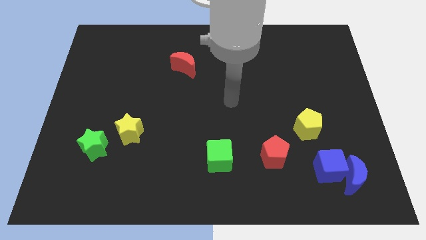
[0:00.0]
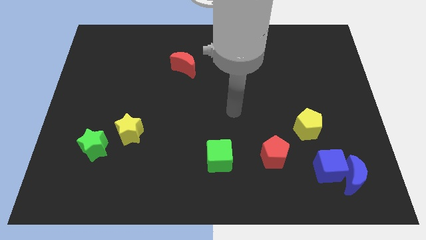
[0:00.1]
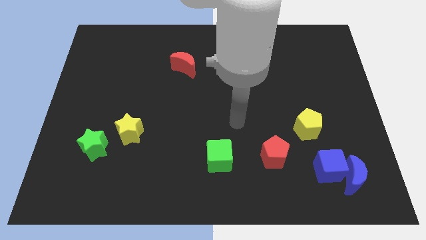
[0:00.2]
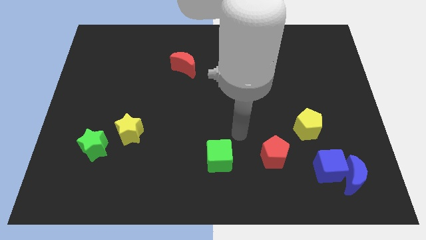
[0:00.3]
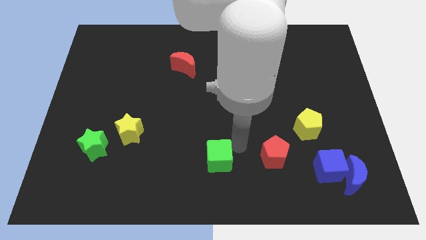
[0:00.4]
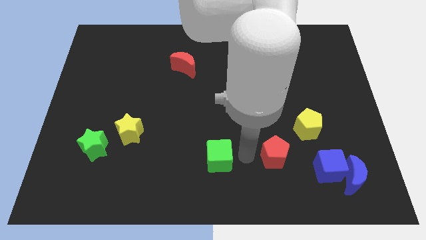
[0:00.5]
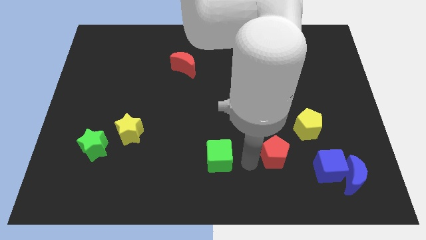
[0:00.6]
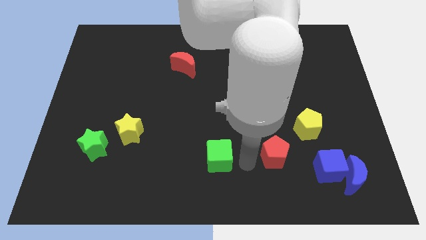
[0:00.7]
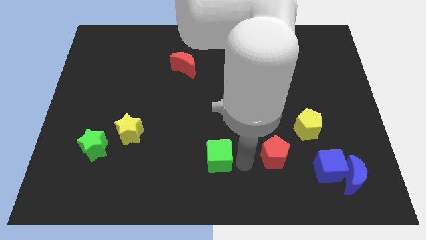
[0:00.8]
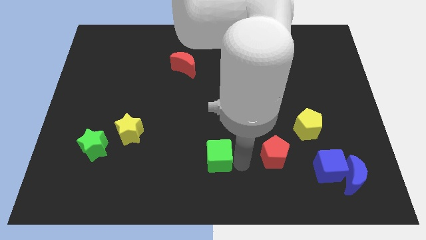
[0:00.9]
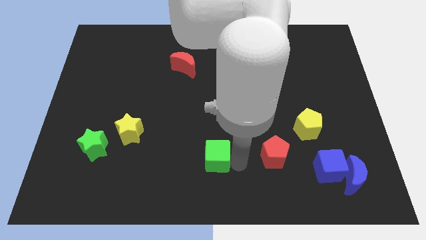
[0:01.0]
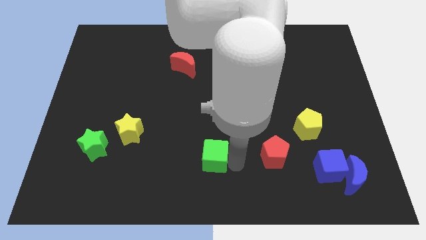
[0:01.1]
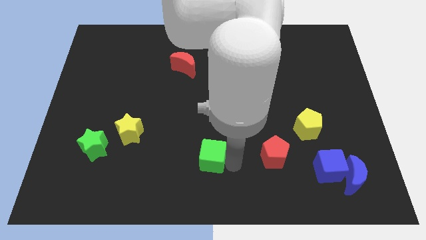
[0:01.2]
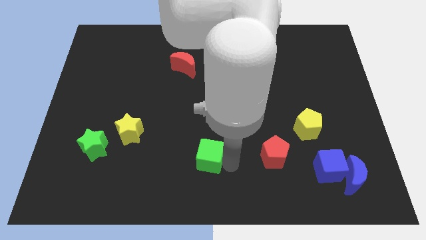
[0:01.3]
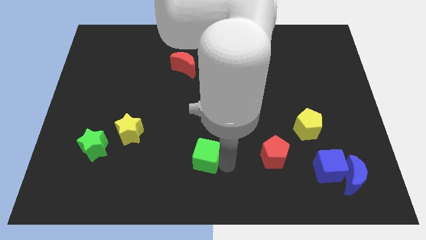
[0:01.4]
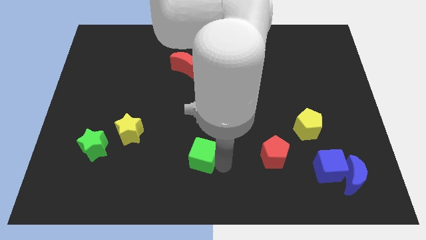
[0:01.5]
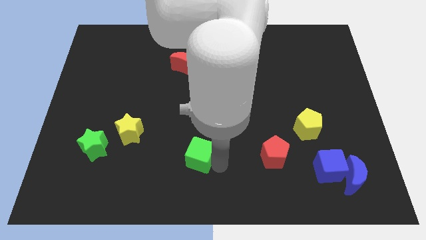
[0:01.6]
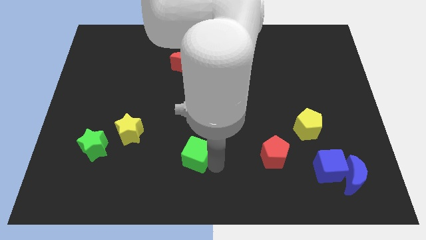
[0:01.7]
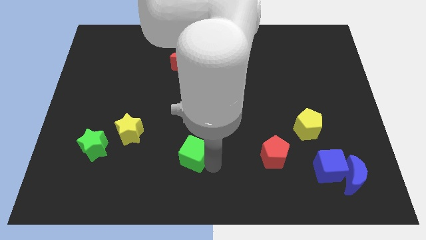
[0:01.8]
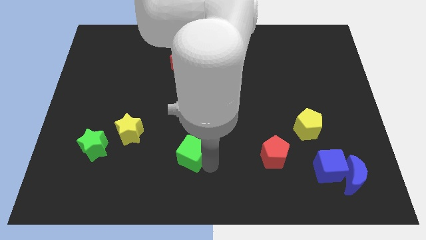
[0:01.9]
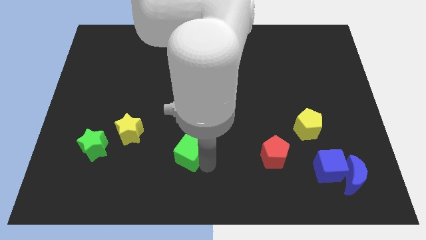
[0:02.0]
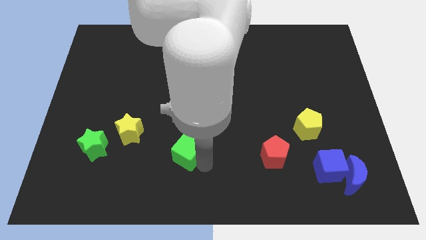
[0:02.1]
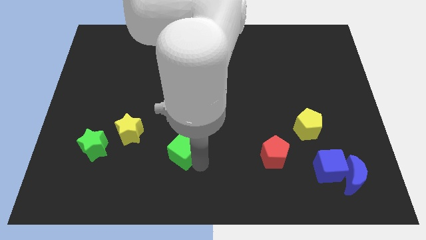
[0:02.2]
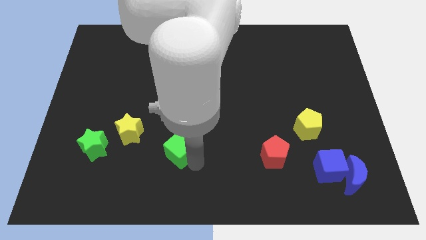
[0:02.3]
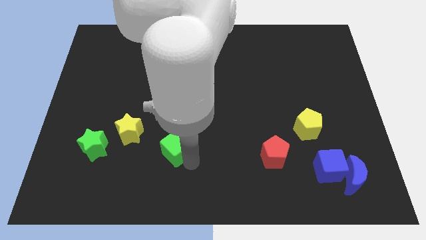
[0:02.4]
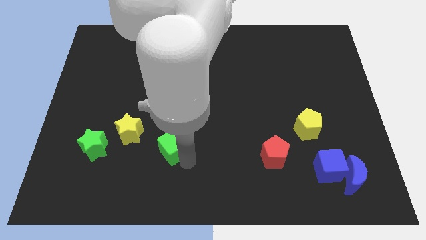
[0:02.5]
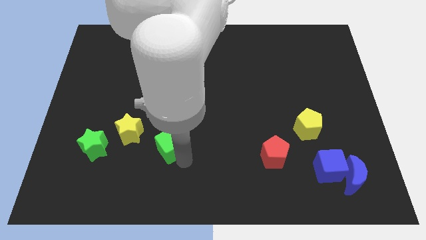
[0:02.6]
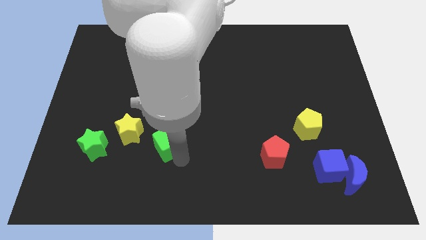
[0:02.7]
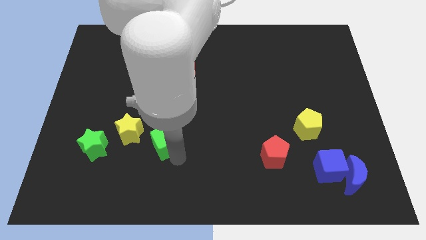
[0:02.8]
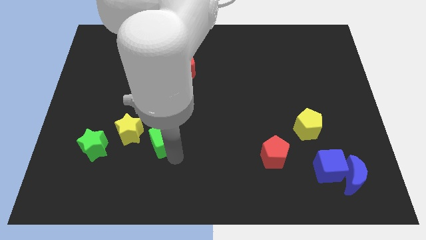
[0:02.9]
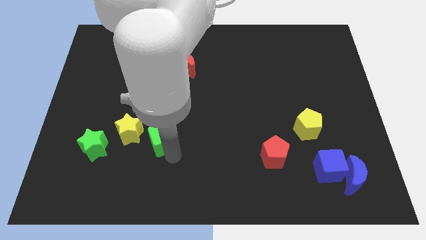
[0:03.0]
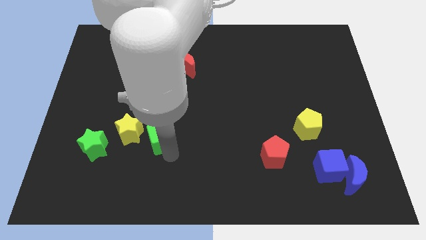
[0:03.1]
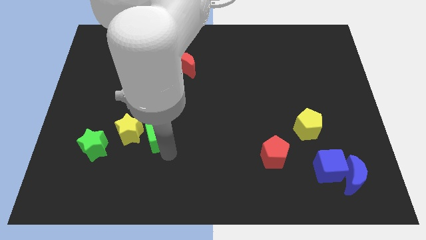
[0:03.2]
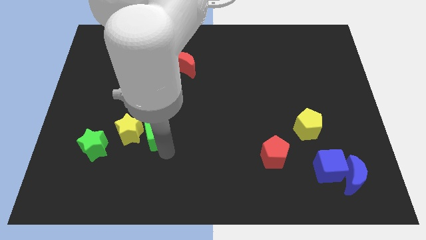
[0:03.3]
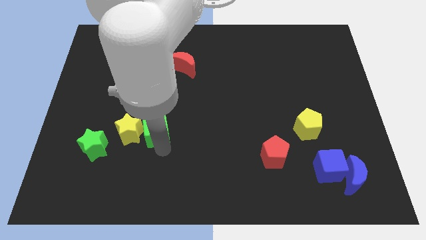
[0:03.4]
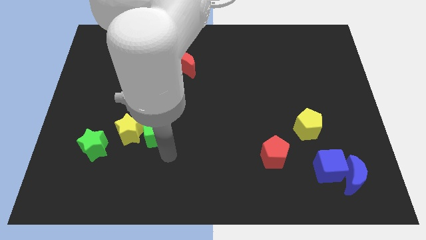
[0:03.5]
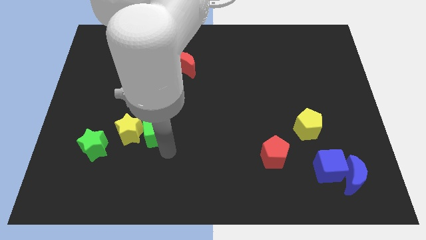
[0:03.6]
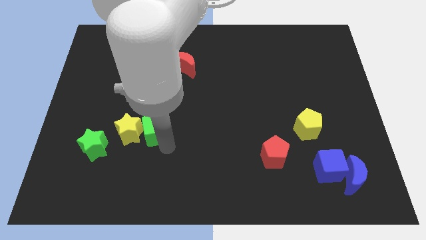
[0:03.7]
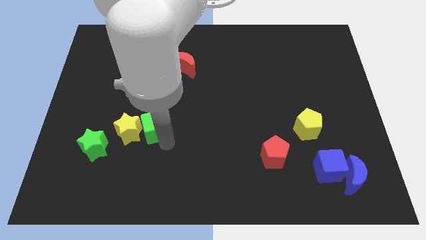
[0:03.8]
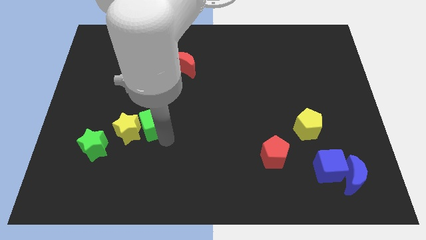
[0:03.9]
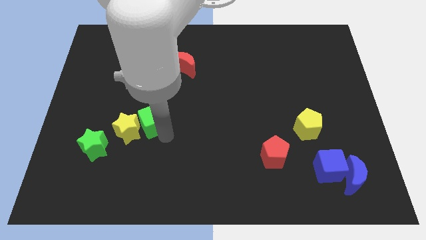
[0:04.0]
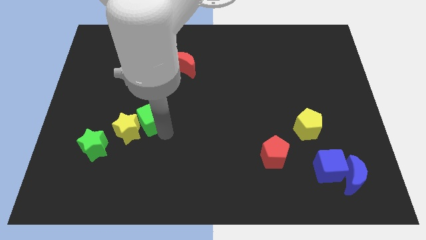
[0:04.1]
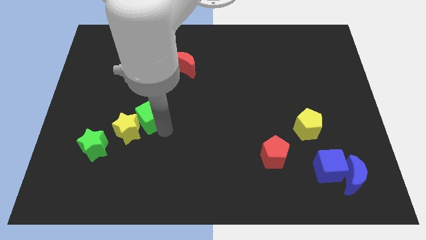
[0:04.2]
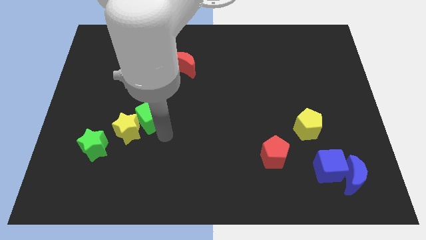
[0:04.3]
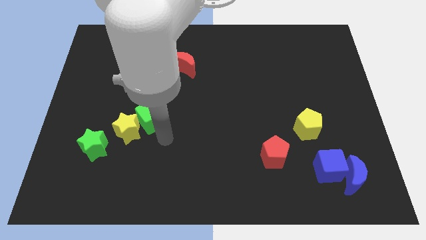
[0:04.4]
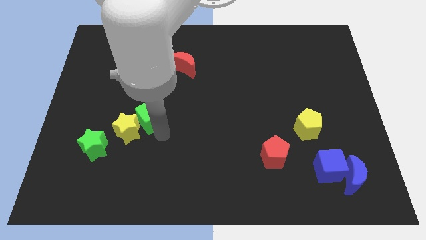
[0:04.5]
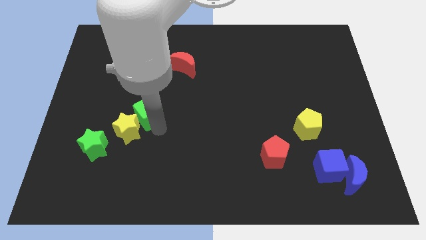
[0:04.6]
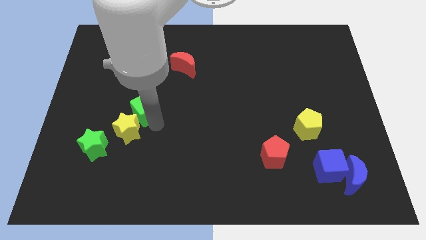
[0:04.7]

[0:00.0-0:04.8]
push the green cube up and left

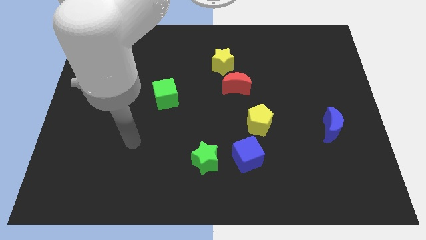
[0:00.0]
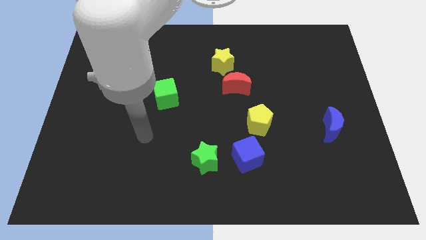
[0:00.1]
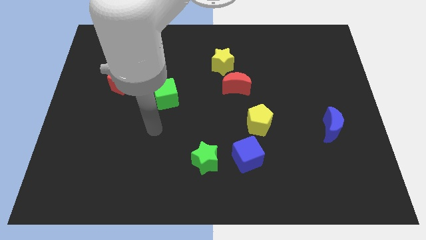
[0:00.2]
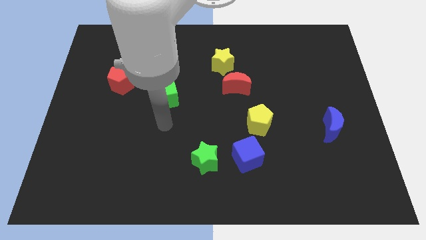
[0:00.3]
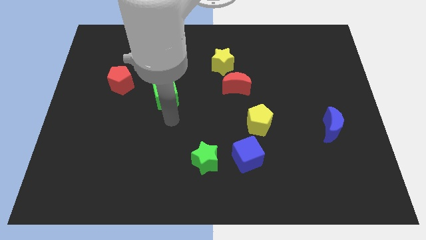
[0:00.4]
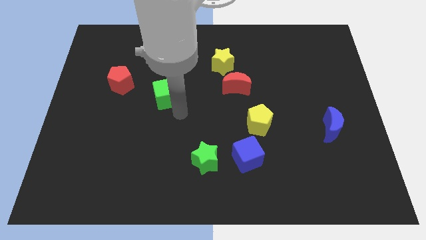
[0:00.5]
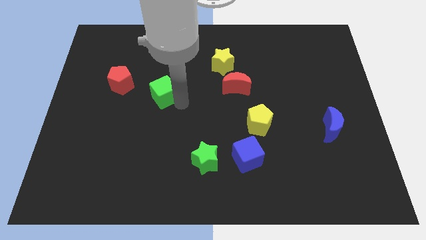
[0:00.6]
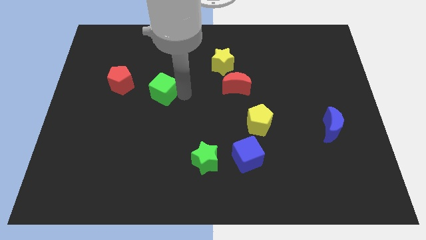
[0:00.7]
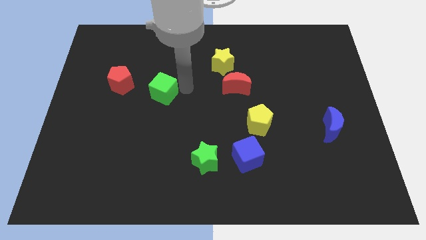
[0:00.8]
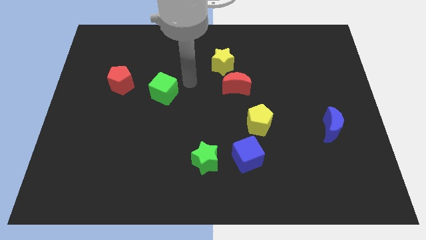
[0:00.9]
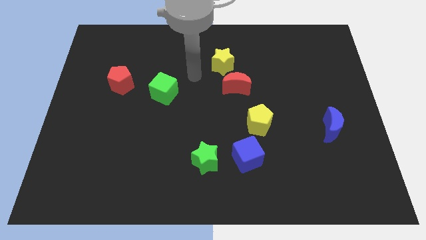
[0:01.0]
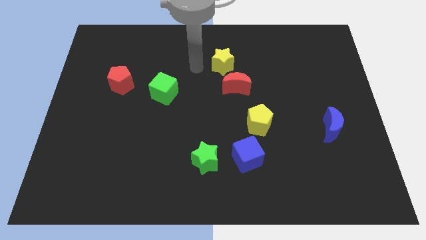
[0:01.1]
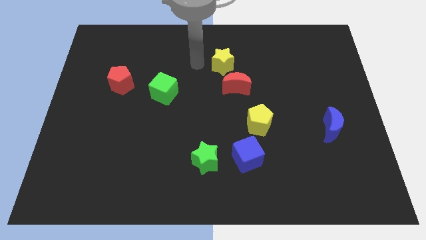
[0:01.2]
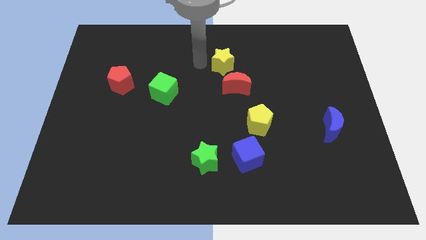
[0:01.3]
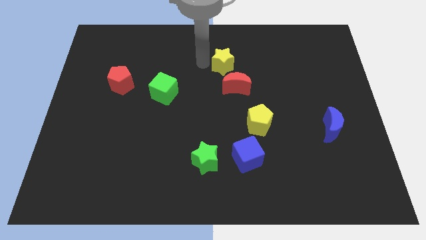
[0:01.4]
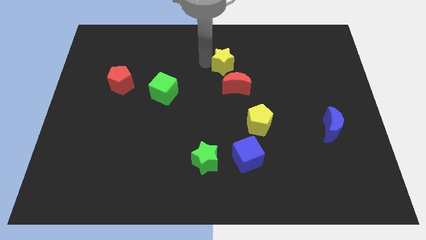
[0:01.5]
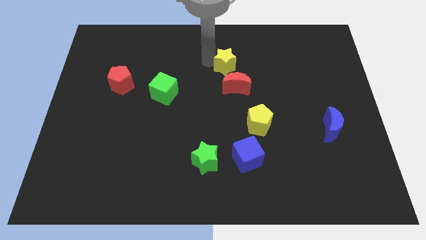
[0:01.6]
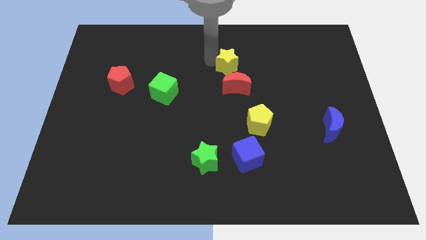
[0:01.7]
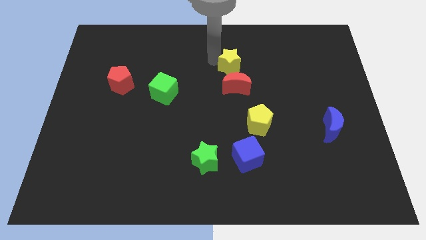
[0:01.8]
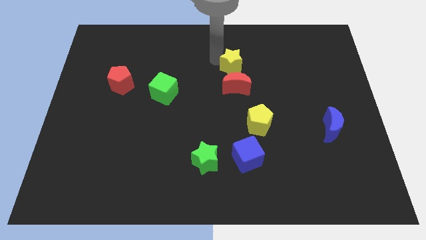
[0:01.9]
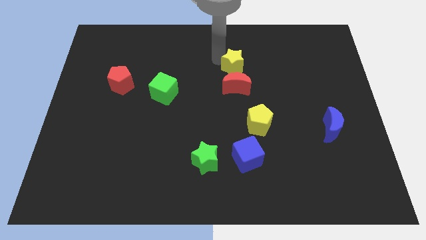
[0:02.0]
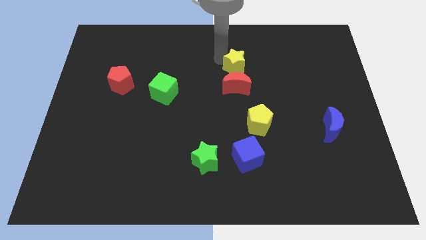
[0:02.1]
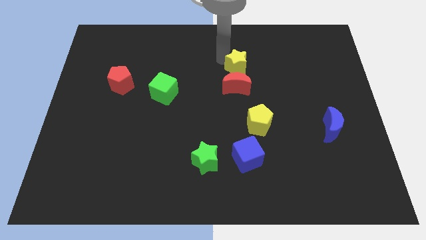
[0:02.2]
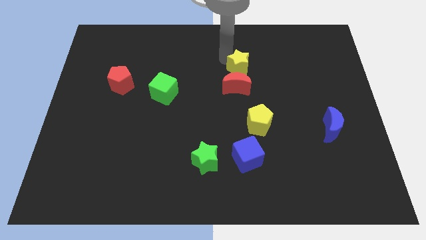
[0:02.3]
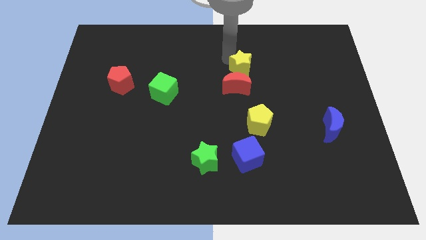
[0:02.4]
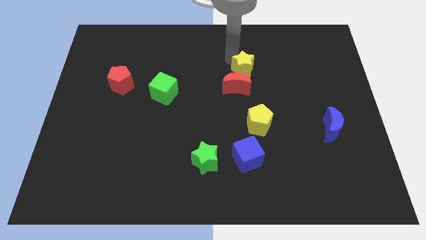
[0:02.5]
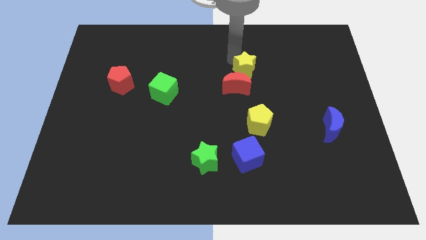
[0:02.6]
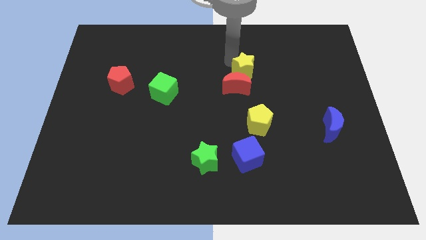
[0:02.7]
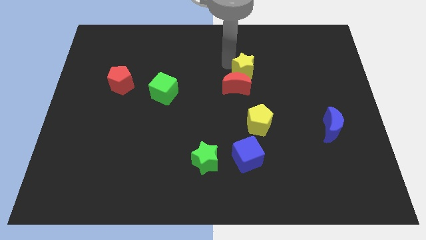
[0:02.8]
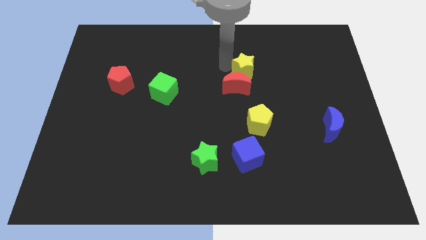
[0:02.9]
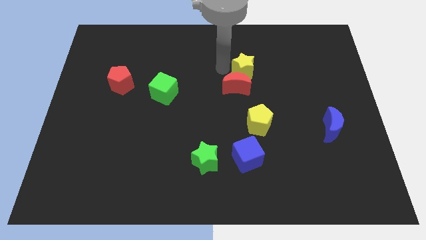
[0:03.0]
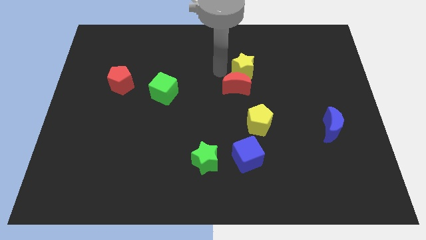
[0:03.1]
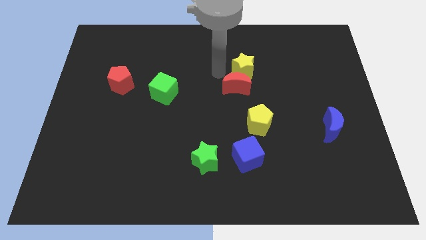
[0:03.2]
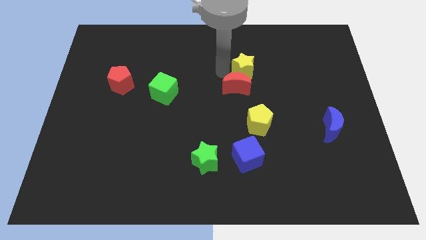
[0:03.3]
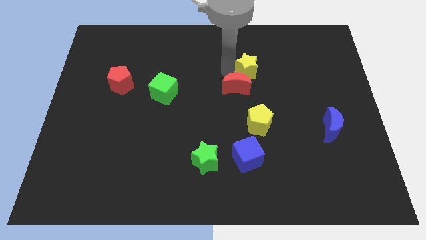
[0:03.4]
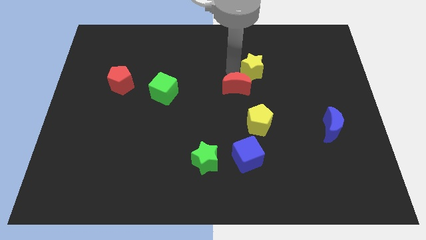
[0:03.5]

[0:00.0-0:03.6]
slightly move the yellow star right

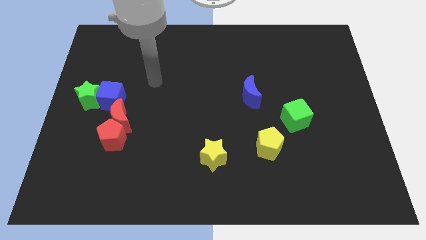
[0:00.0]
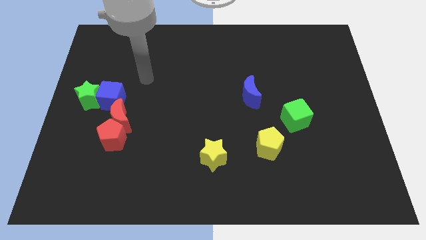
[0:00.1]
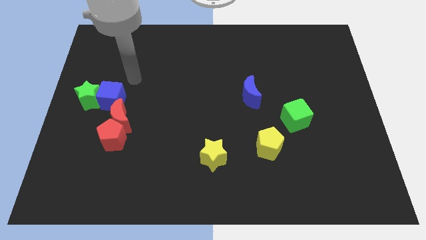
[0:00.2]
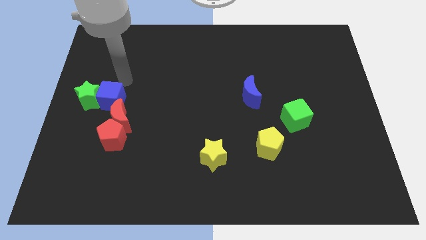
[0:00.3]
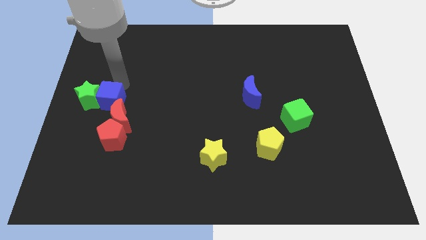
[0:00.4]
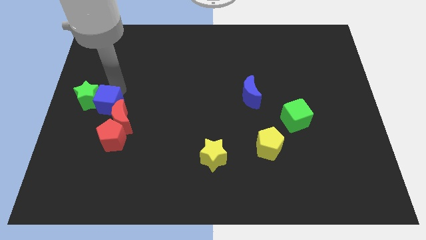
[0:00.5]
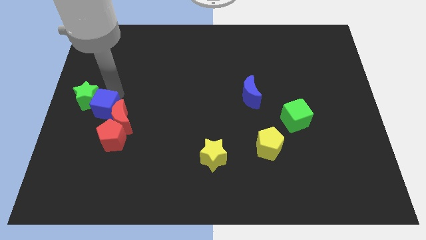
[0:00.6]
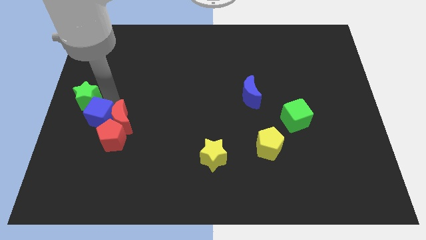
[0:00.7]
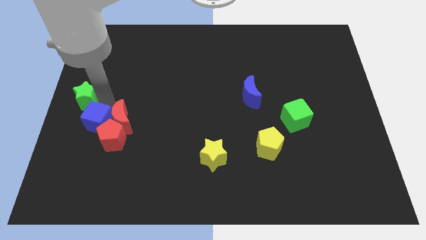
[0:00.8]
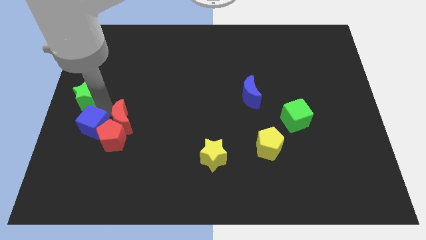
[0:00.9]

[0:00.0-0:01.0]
slide the blue cube a little downwards
